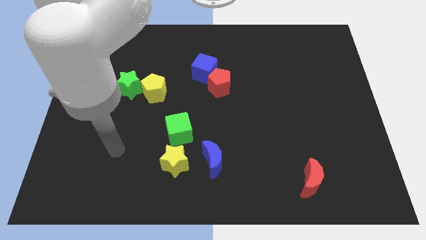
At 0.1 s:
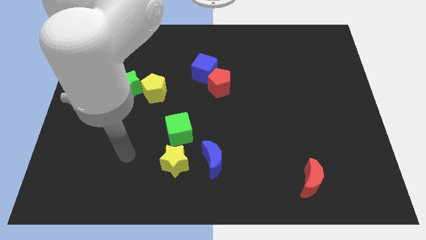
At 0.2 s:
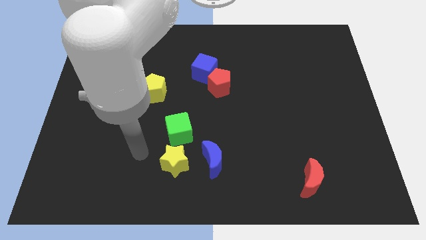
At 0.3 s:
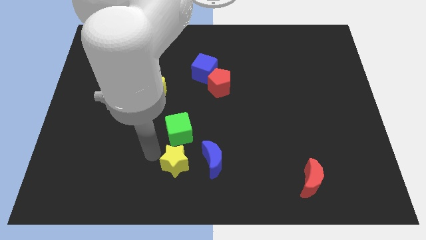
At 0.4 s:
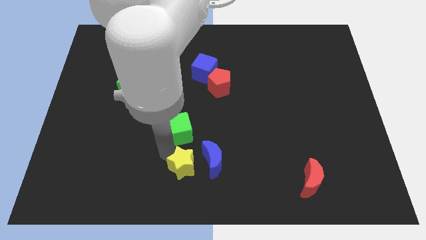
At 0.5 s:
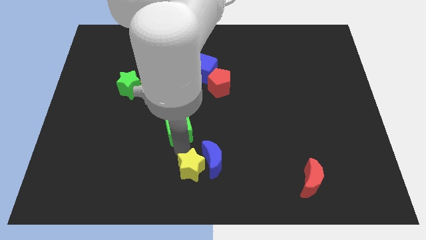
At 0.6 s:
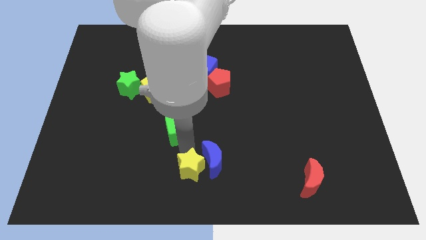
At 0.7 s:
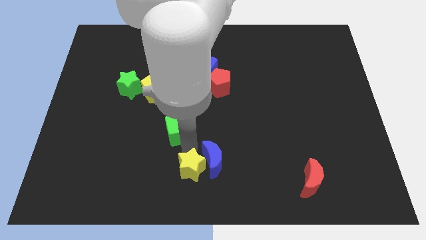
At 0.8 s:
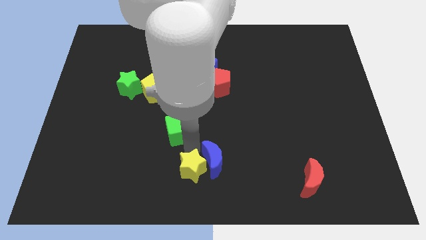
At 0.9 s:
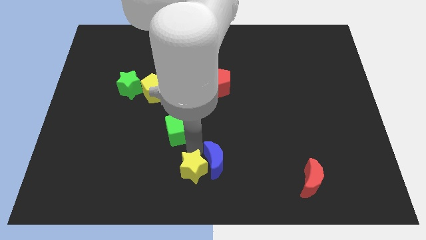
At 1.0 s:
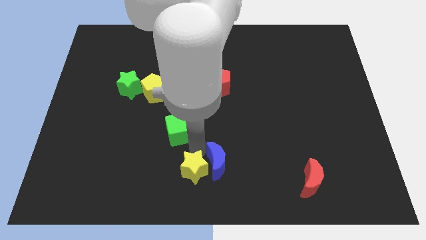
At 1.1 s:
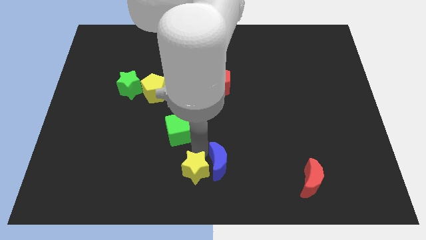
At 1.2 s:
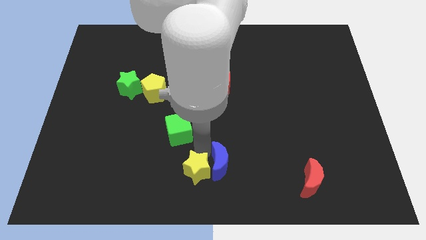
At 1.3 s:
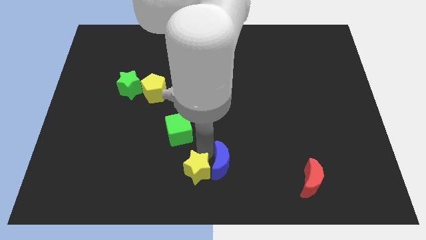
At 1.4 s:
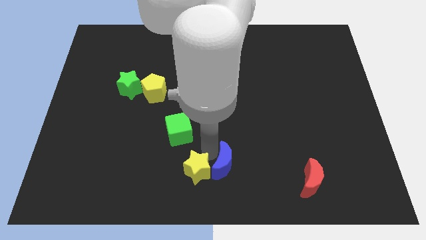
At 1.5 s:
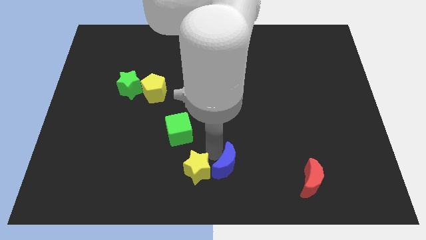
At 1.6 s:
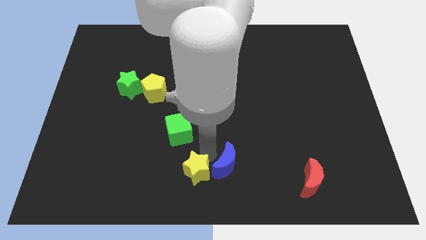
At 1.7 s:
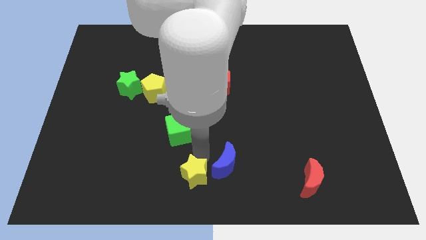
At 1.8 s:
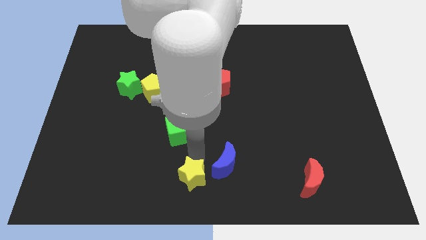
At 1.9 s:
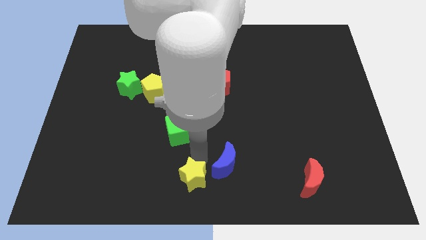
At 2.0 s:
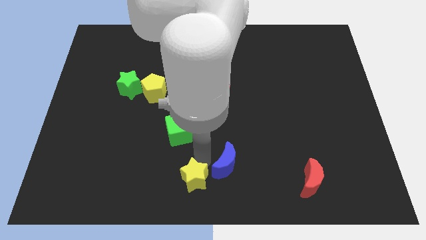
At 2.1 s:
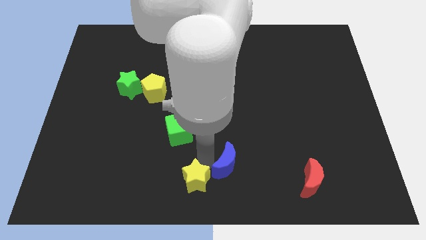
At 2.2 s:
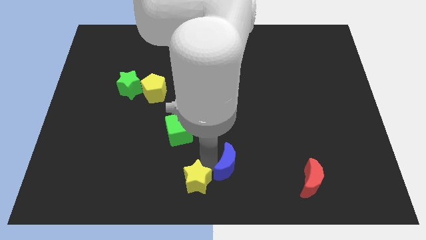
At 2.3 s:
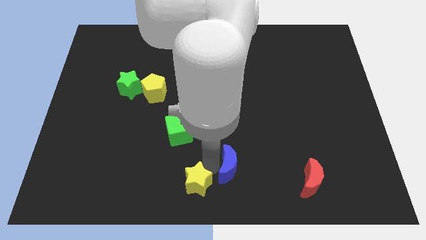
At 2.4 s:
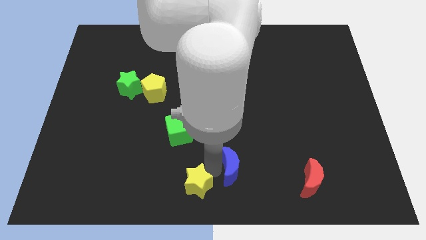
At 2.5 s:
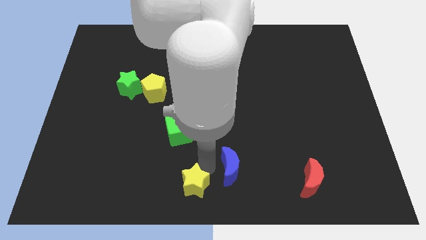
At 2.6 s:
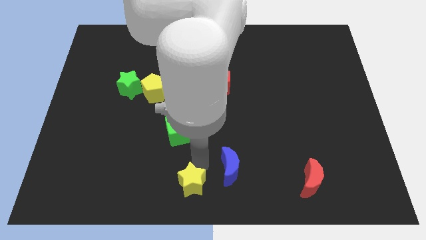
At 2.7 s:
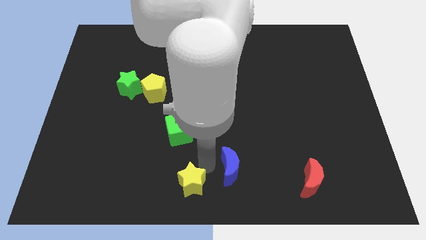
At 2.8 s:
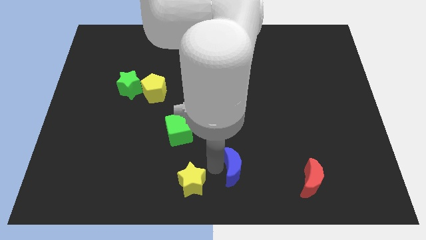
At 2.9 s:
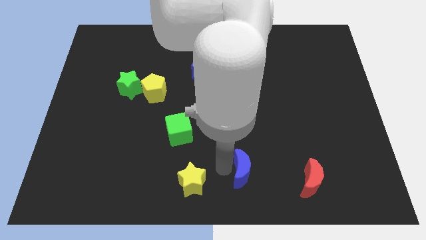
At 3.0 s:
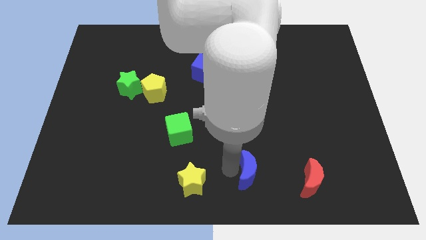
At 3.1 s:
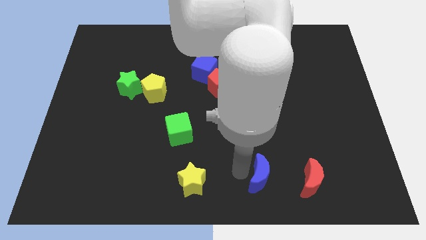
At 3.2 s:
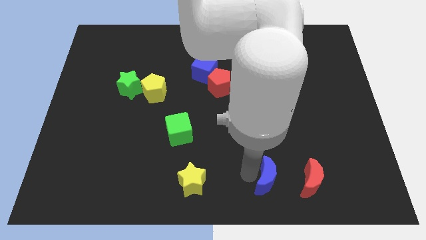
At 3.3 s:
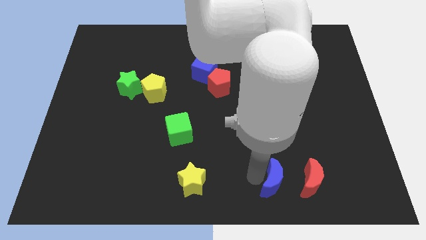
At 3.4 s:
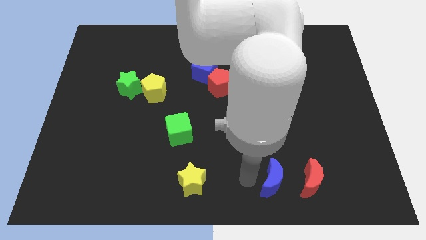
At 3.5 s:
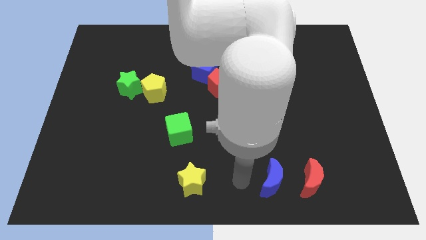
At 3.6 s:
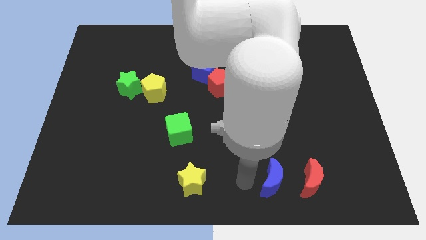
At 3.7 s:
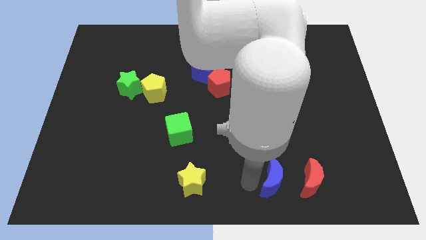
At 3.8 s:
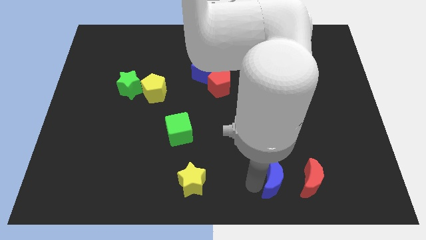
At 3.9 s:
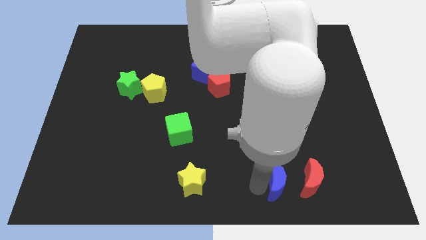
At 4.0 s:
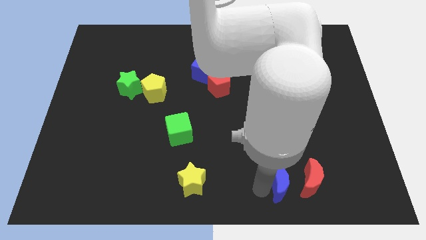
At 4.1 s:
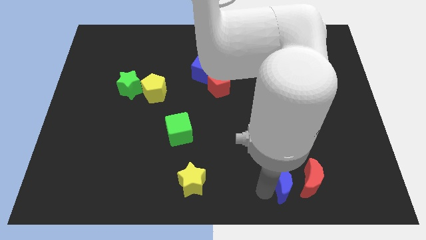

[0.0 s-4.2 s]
put the blue moon towards the red moon

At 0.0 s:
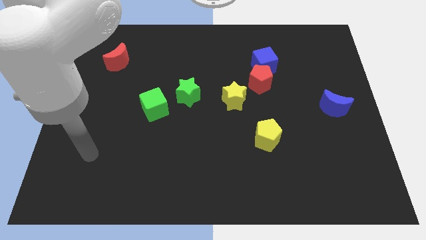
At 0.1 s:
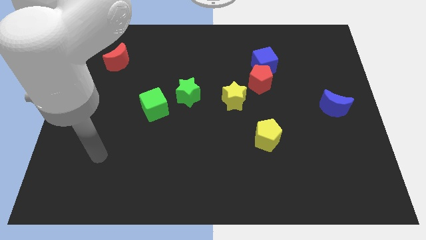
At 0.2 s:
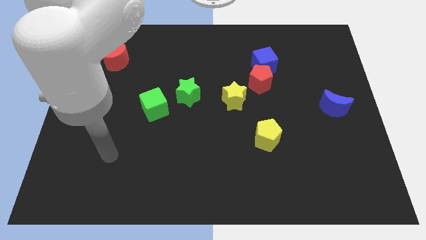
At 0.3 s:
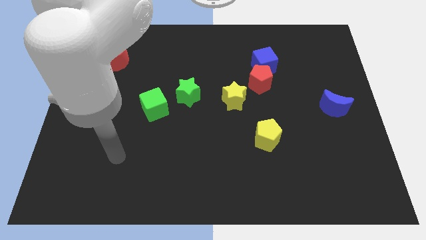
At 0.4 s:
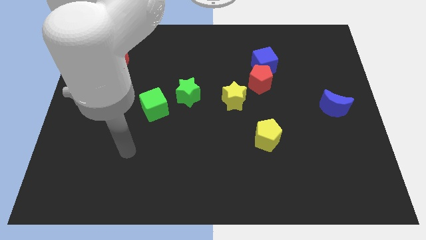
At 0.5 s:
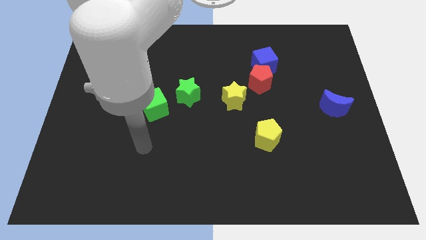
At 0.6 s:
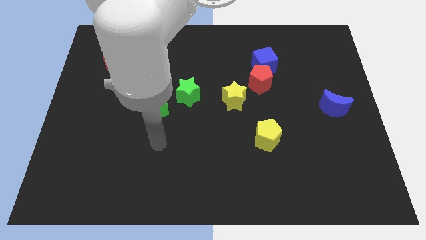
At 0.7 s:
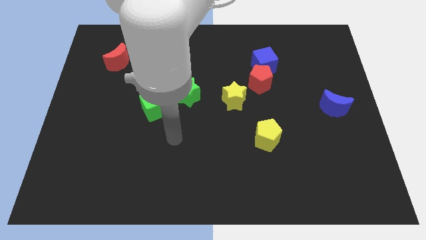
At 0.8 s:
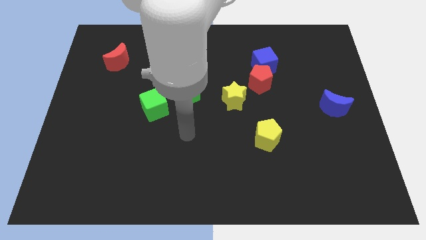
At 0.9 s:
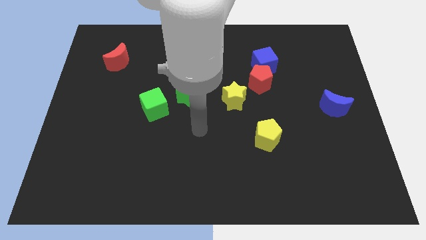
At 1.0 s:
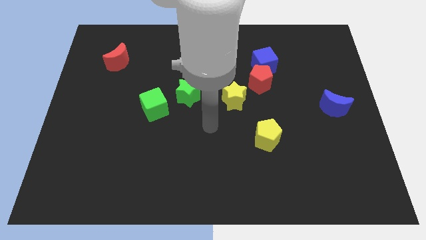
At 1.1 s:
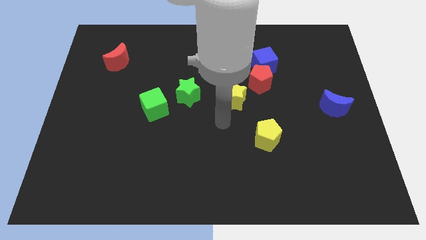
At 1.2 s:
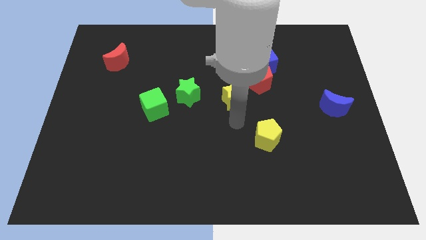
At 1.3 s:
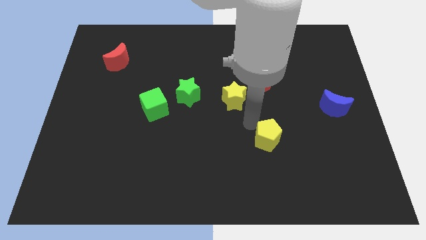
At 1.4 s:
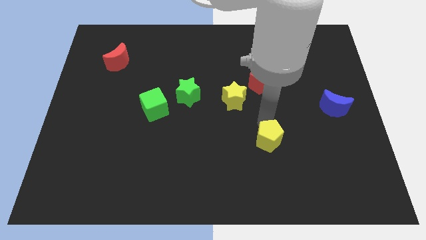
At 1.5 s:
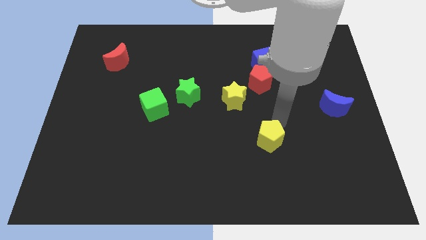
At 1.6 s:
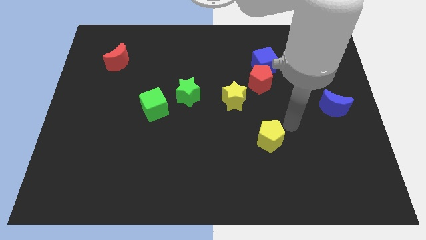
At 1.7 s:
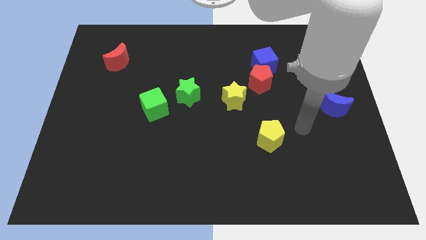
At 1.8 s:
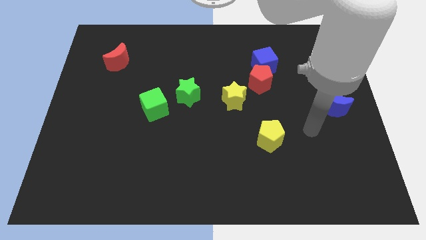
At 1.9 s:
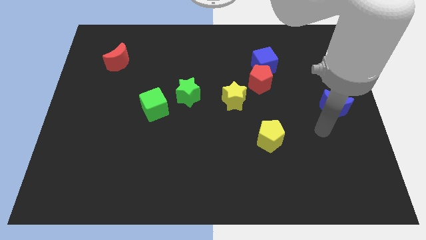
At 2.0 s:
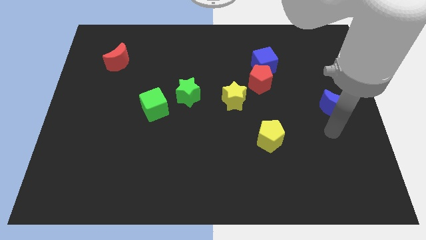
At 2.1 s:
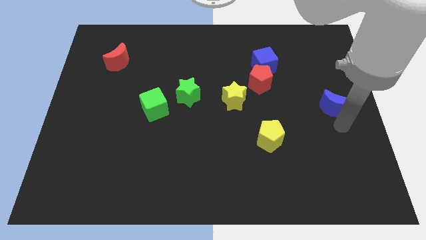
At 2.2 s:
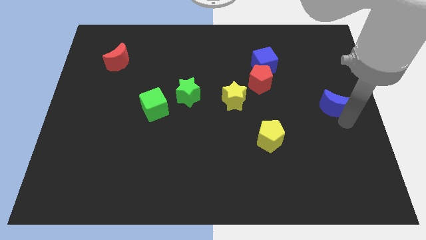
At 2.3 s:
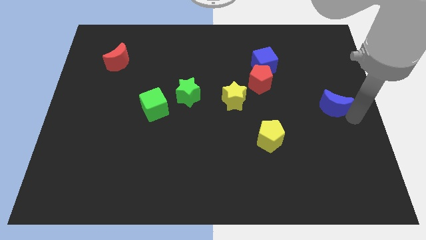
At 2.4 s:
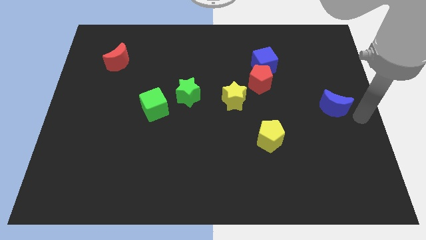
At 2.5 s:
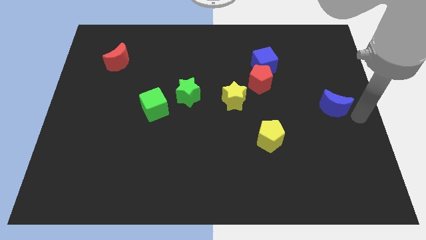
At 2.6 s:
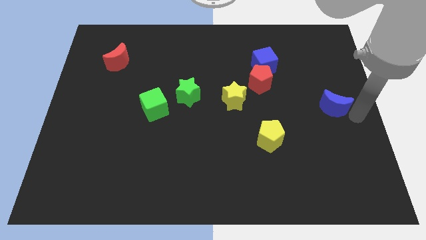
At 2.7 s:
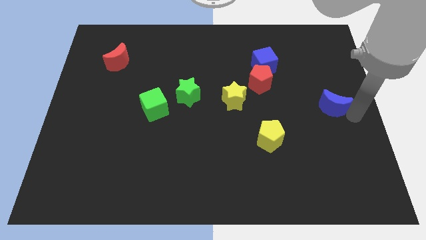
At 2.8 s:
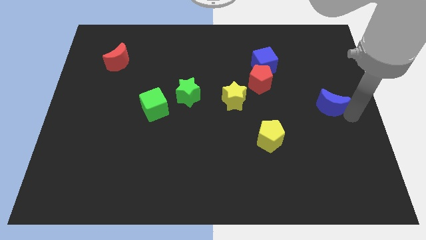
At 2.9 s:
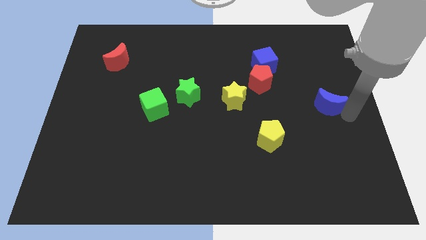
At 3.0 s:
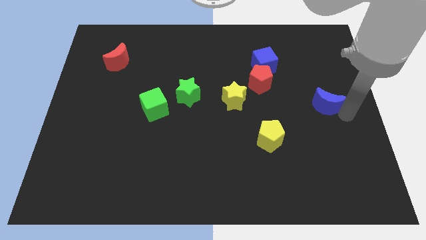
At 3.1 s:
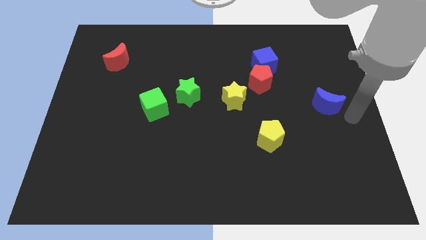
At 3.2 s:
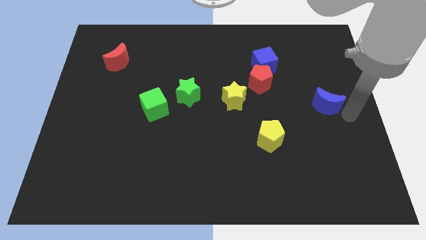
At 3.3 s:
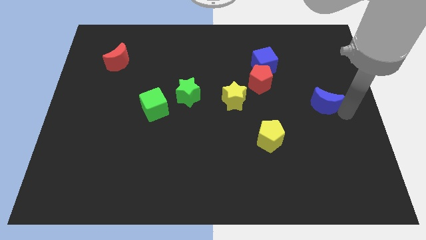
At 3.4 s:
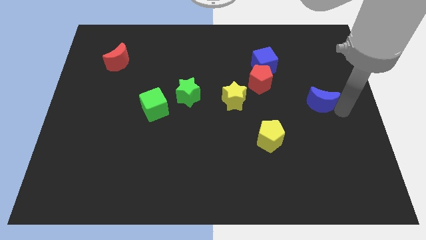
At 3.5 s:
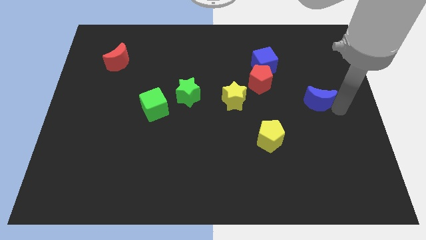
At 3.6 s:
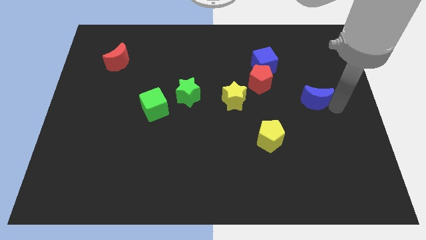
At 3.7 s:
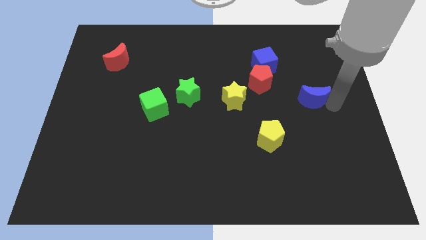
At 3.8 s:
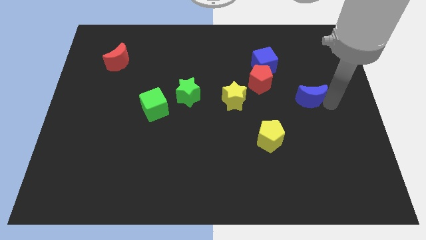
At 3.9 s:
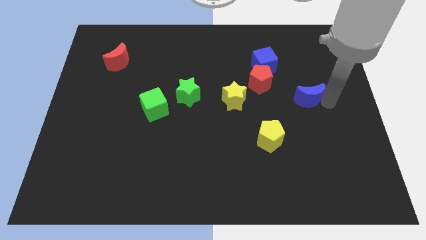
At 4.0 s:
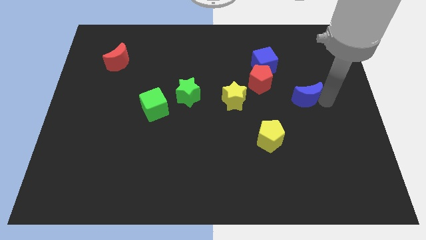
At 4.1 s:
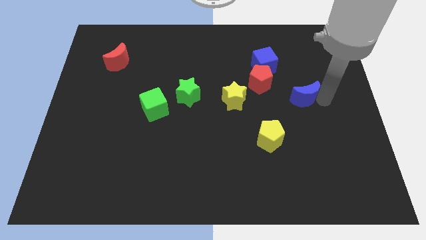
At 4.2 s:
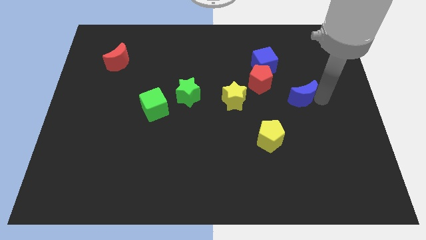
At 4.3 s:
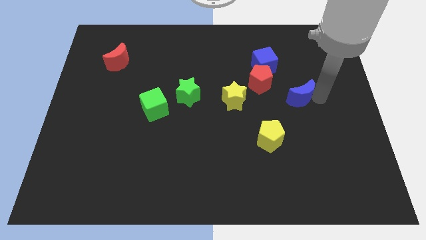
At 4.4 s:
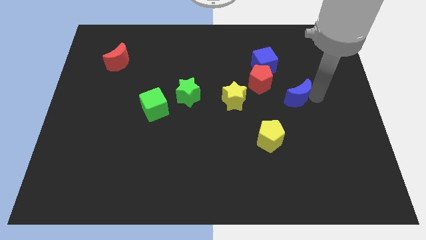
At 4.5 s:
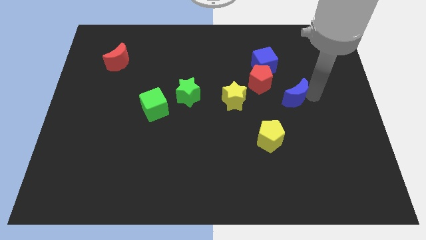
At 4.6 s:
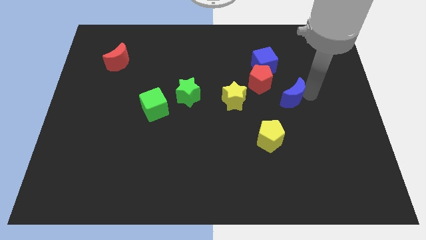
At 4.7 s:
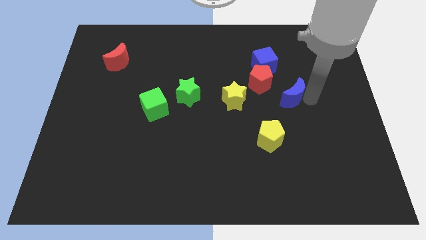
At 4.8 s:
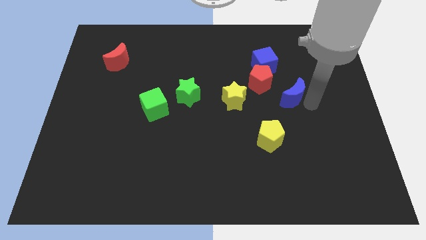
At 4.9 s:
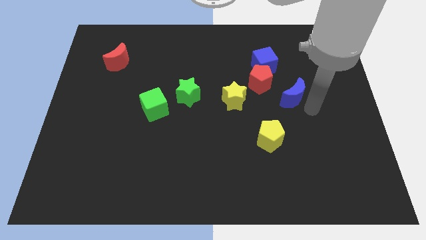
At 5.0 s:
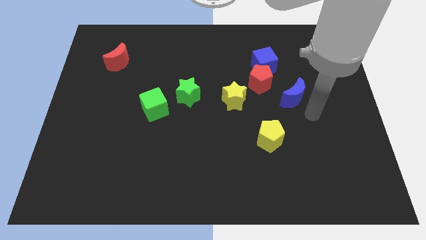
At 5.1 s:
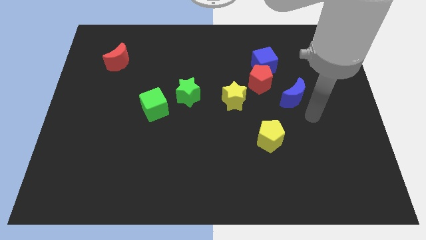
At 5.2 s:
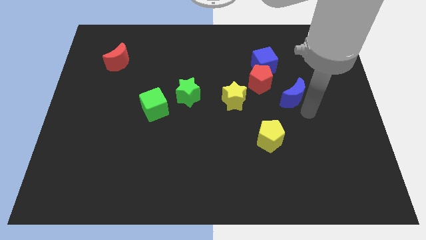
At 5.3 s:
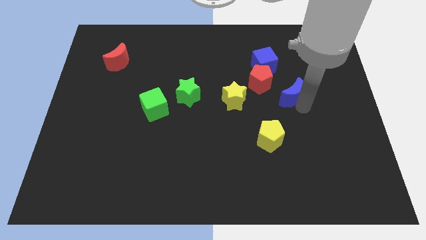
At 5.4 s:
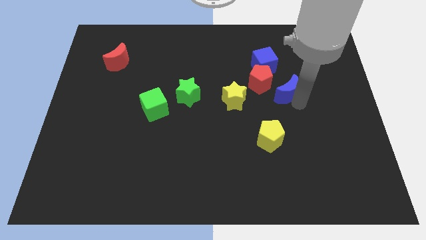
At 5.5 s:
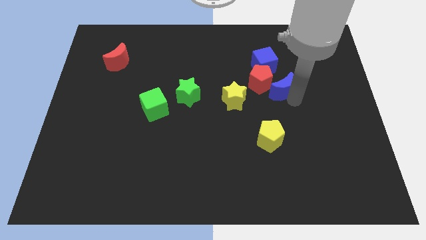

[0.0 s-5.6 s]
put the blue moon next to the red pentagon
